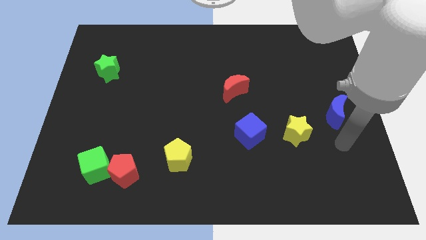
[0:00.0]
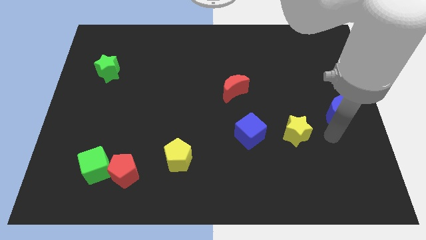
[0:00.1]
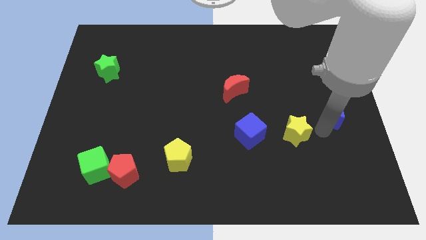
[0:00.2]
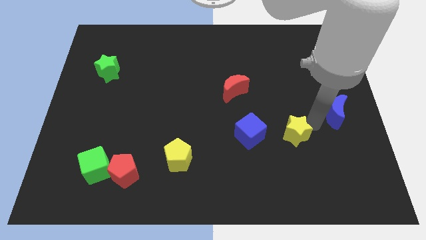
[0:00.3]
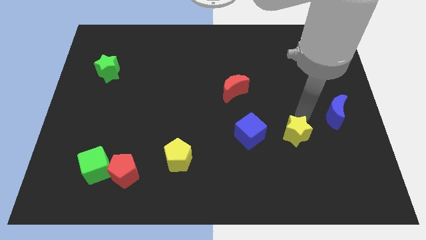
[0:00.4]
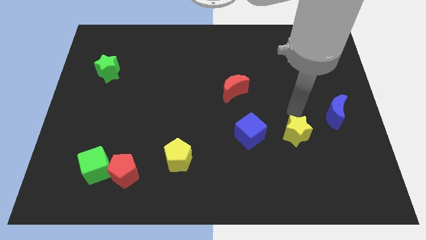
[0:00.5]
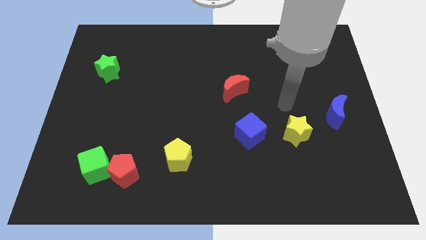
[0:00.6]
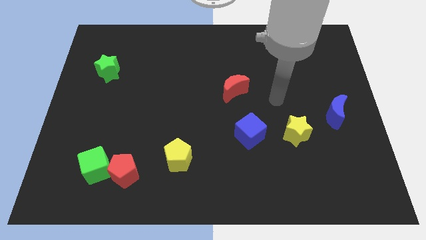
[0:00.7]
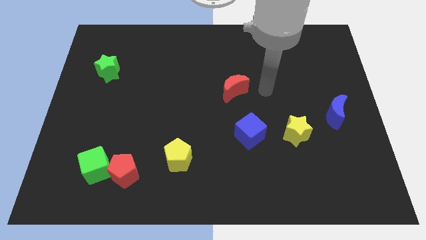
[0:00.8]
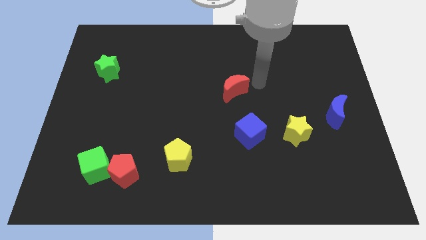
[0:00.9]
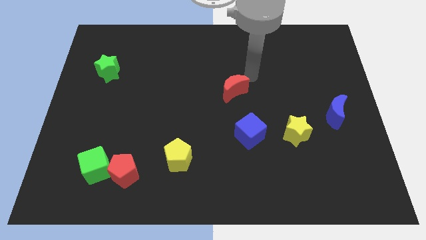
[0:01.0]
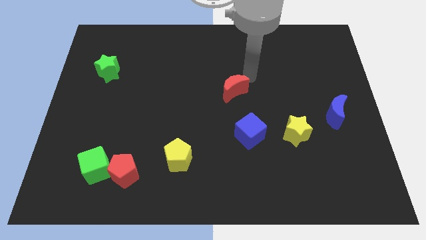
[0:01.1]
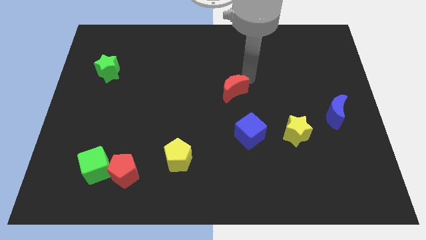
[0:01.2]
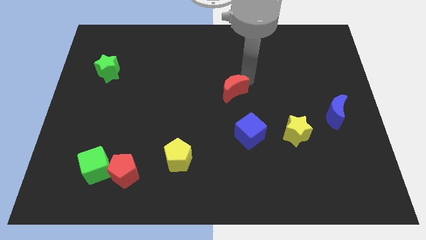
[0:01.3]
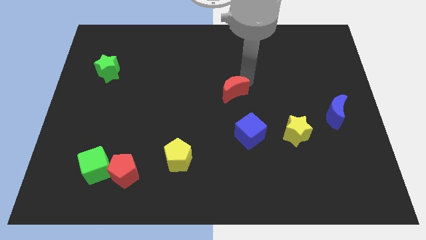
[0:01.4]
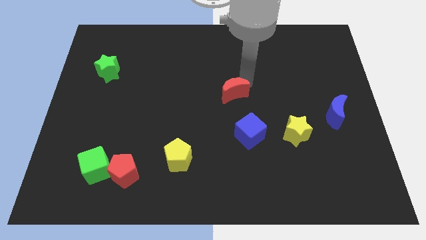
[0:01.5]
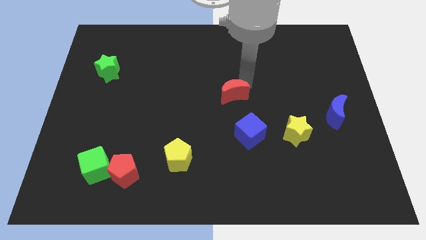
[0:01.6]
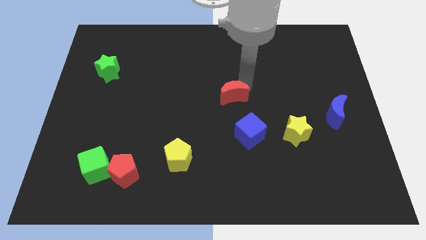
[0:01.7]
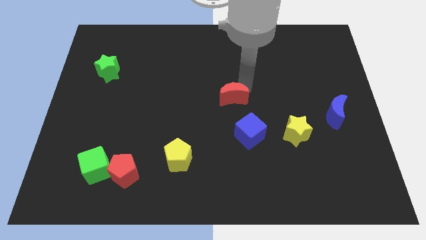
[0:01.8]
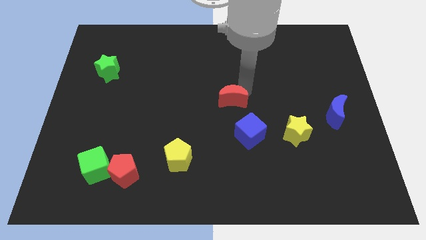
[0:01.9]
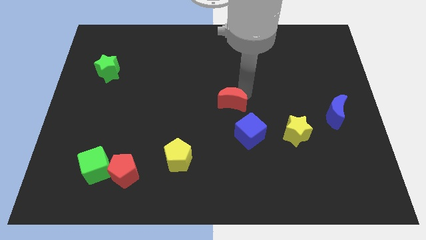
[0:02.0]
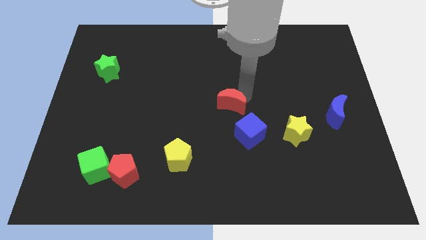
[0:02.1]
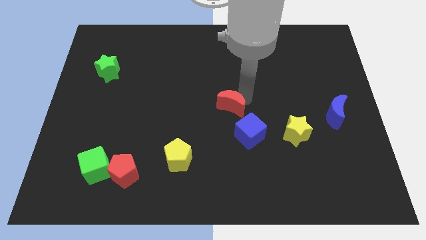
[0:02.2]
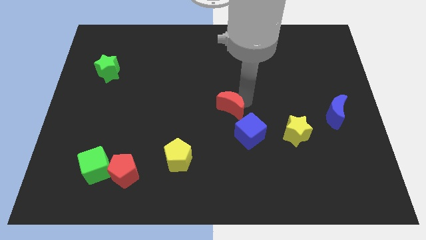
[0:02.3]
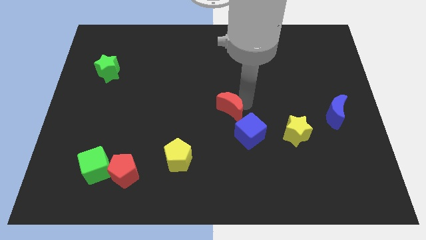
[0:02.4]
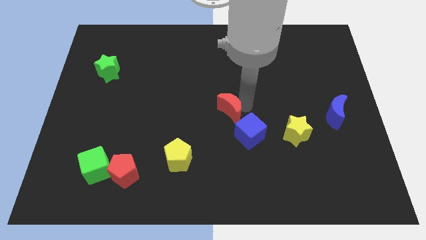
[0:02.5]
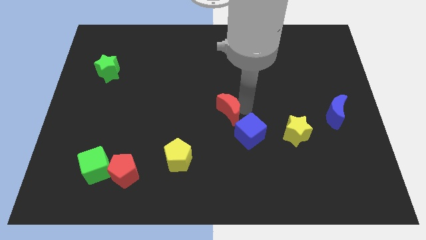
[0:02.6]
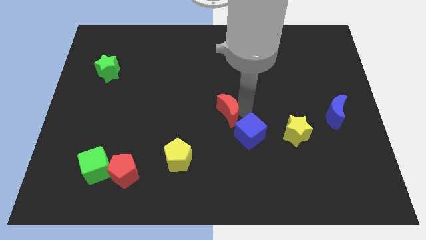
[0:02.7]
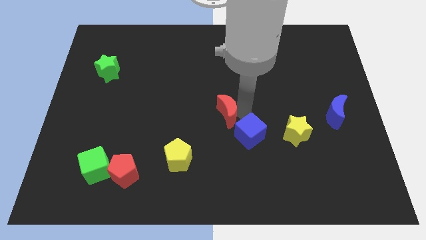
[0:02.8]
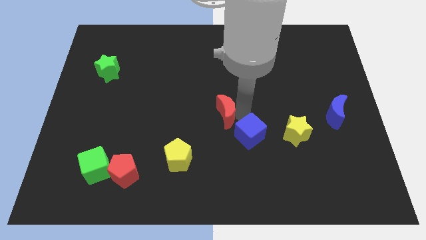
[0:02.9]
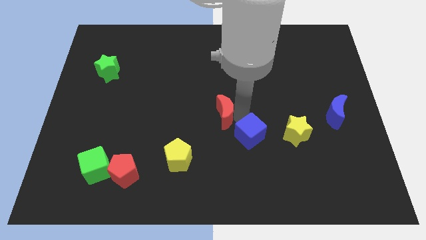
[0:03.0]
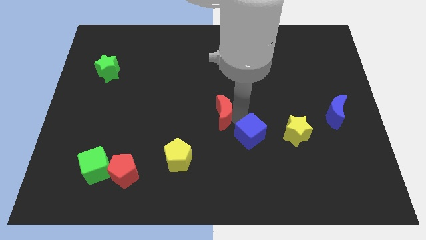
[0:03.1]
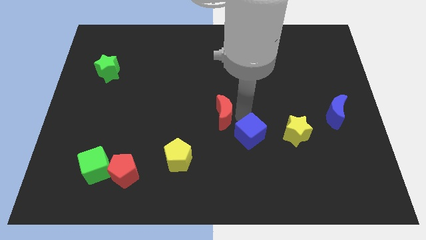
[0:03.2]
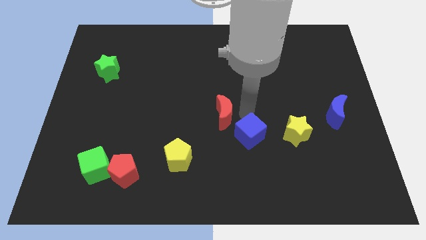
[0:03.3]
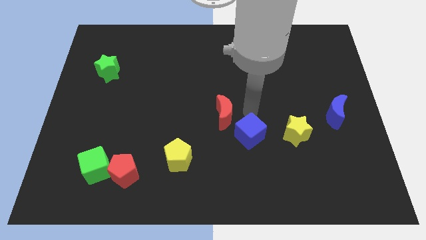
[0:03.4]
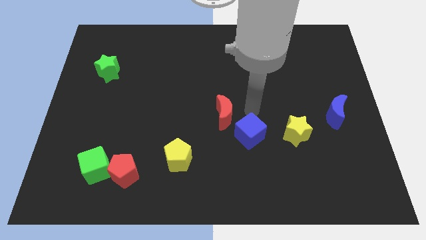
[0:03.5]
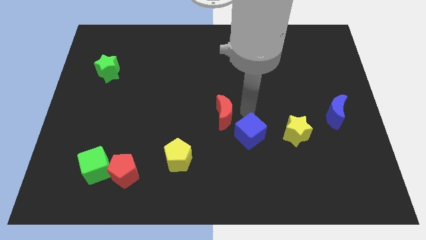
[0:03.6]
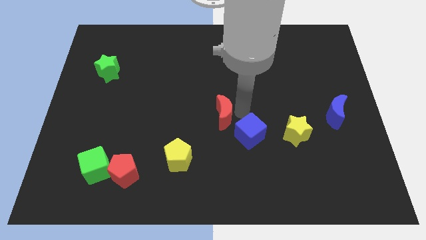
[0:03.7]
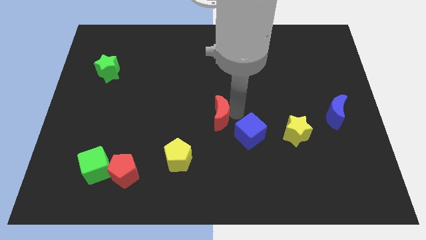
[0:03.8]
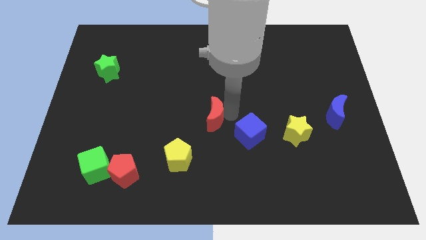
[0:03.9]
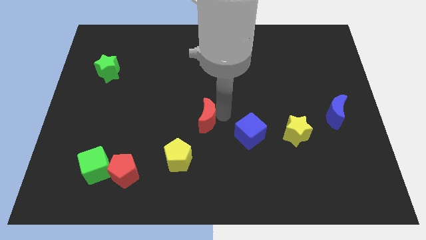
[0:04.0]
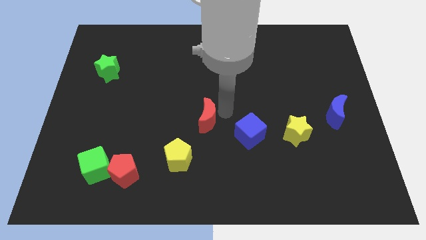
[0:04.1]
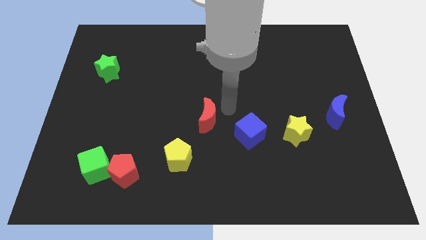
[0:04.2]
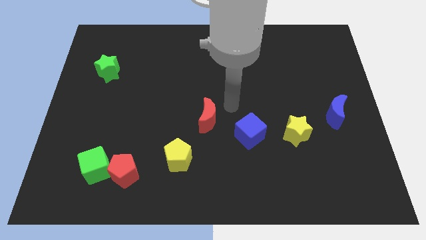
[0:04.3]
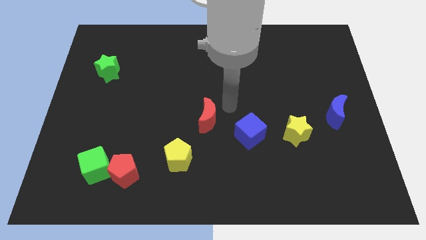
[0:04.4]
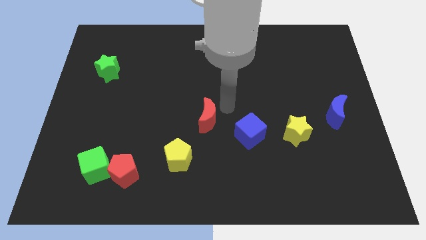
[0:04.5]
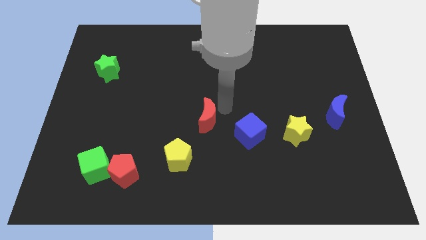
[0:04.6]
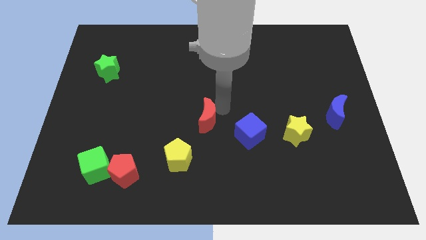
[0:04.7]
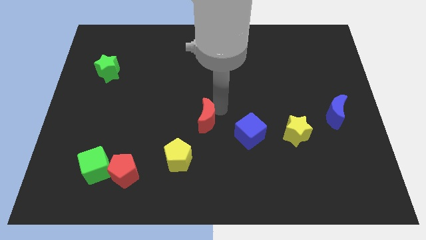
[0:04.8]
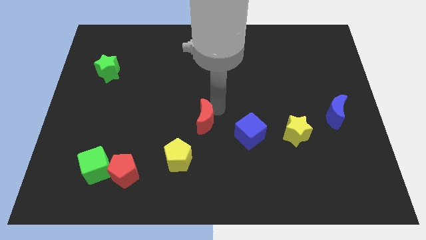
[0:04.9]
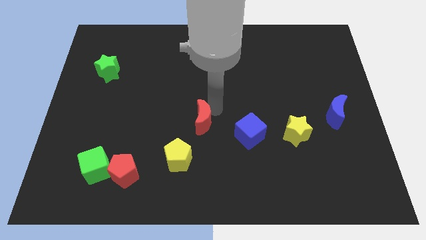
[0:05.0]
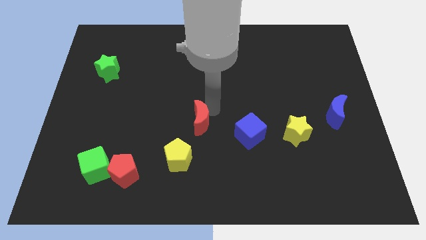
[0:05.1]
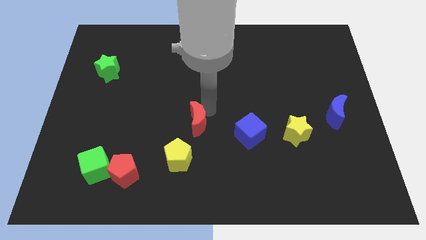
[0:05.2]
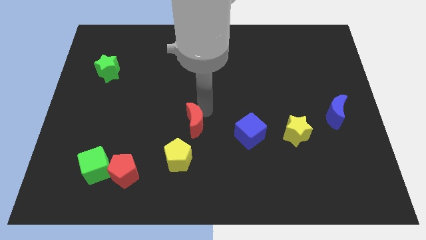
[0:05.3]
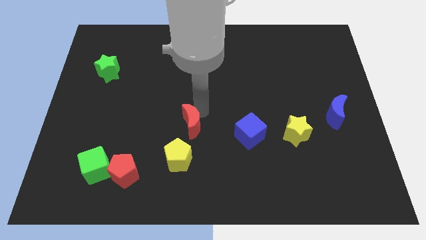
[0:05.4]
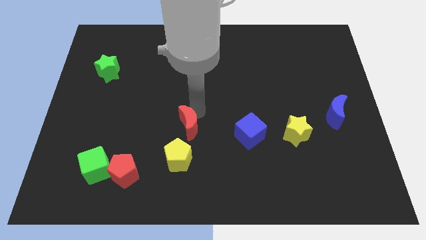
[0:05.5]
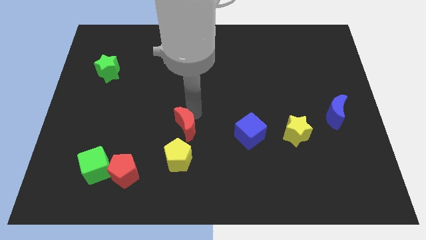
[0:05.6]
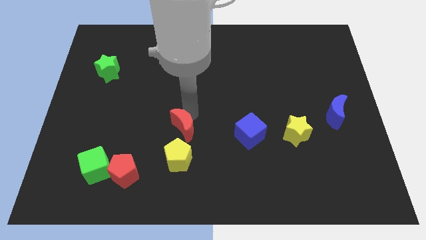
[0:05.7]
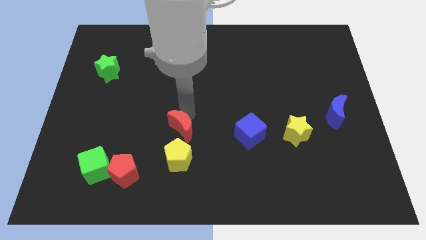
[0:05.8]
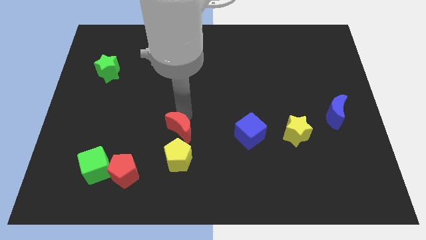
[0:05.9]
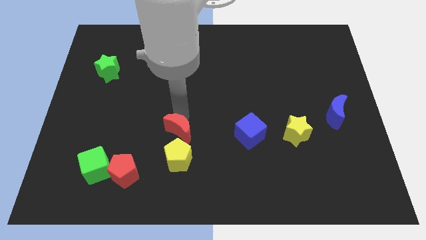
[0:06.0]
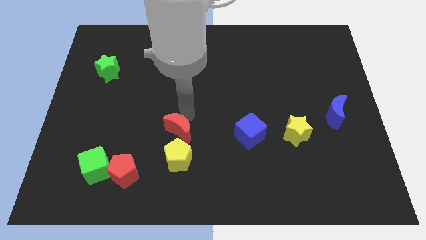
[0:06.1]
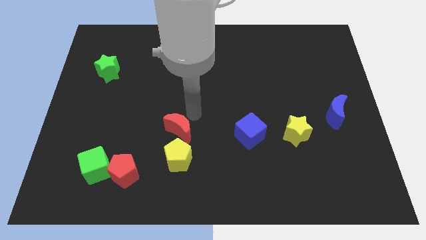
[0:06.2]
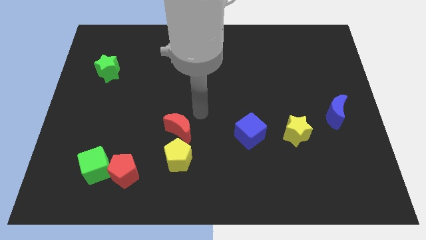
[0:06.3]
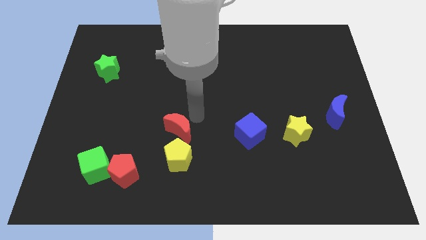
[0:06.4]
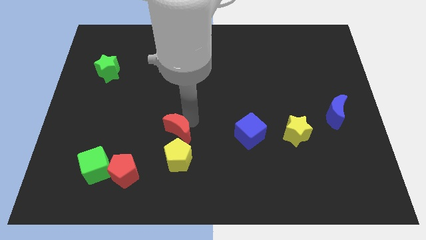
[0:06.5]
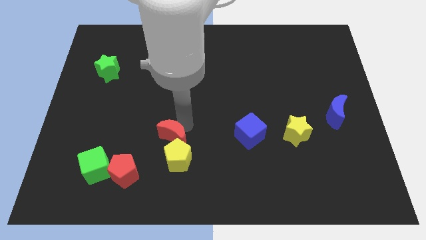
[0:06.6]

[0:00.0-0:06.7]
slide the red moon to the top right side of the red pentagon
